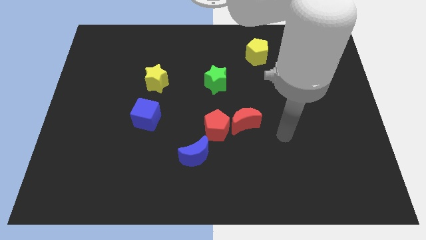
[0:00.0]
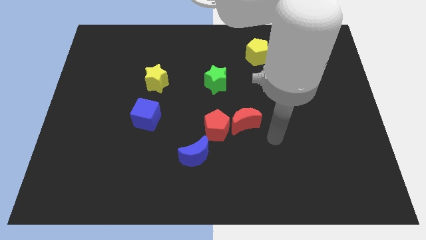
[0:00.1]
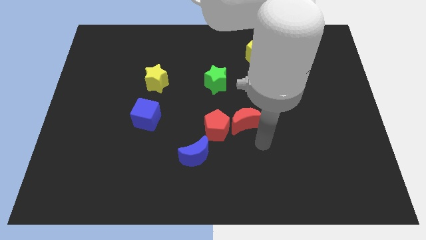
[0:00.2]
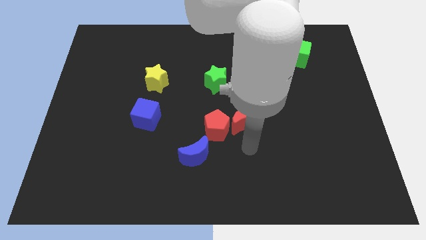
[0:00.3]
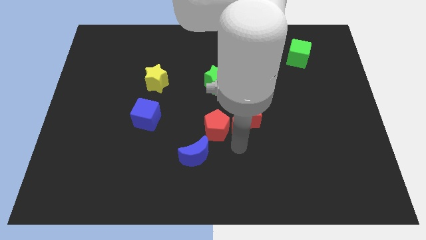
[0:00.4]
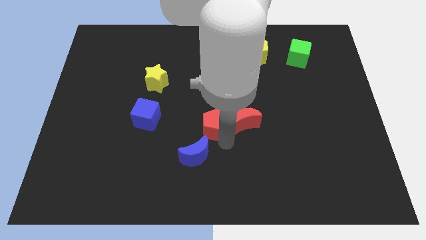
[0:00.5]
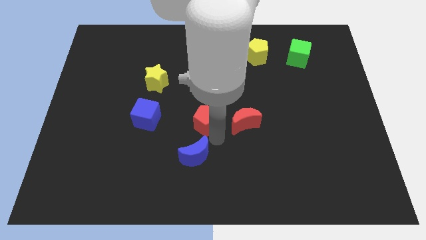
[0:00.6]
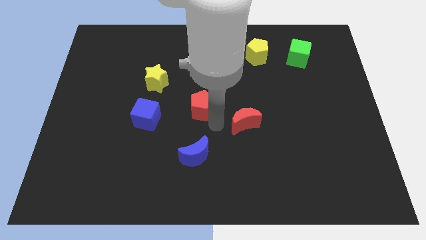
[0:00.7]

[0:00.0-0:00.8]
move the red moon away from the red pentagon

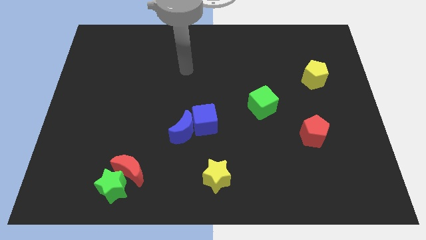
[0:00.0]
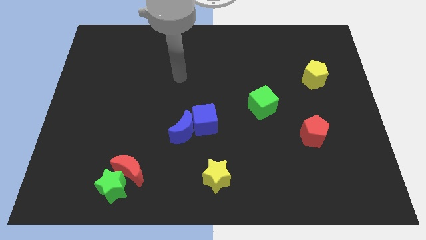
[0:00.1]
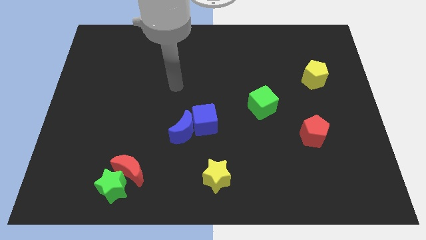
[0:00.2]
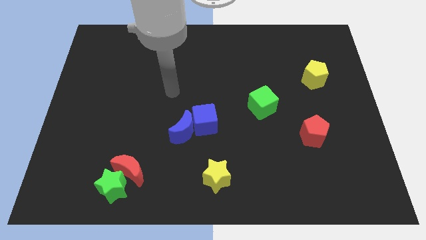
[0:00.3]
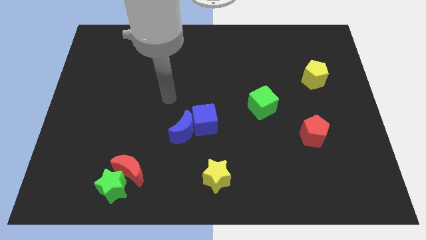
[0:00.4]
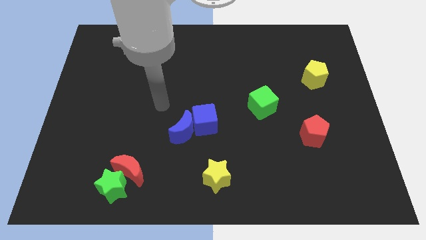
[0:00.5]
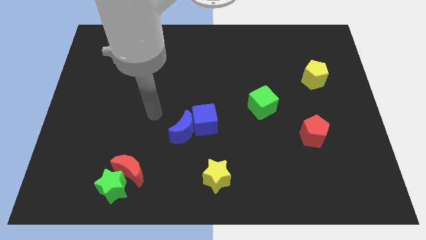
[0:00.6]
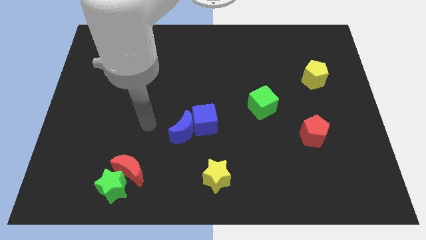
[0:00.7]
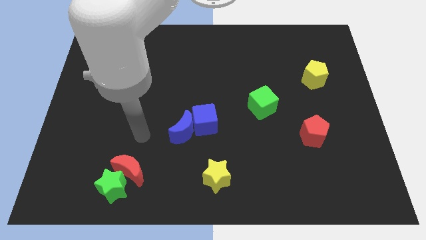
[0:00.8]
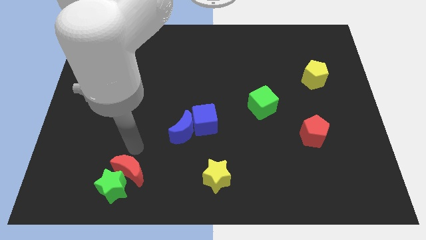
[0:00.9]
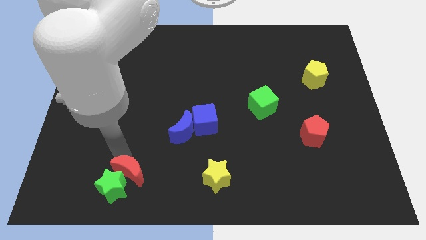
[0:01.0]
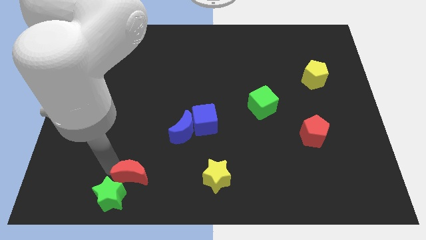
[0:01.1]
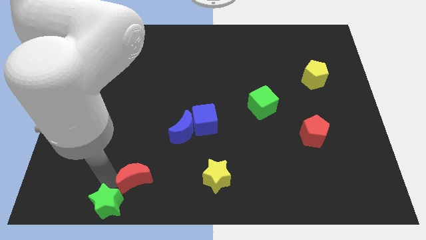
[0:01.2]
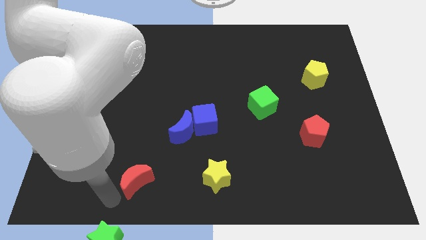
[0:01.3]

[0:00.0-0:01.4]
separate the red moon from the green star

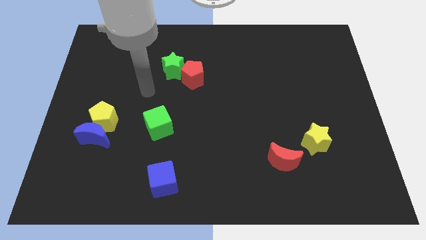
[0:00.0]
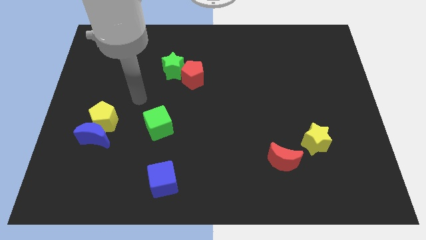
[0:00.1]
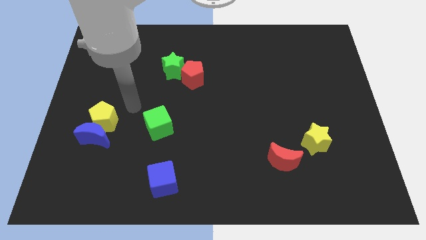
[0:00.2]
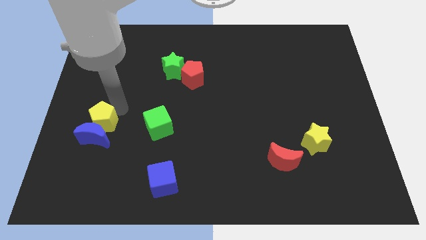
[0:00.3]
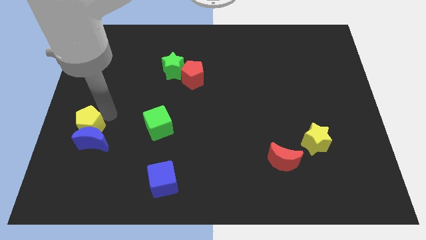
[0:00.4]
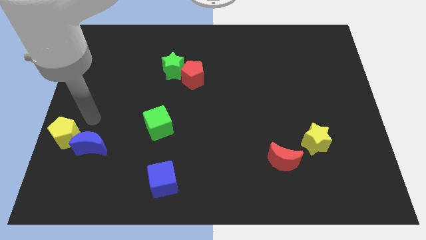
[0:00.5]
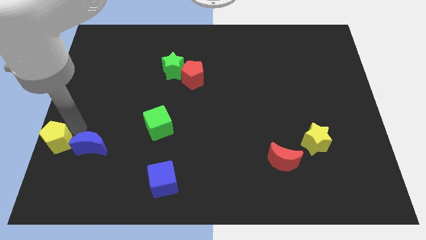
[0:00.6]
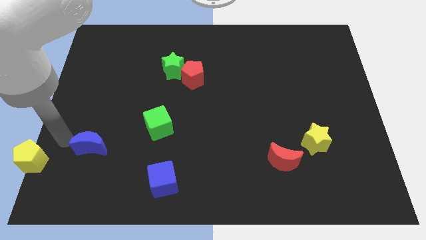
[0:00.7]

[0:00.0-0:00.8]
separate the blue moon from the yellow pentagon

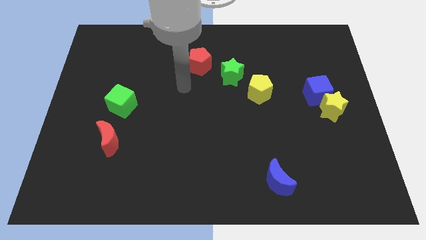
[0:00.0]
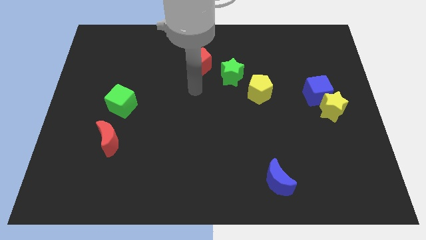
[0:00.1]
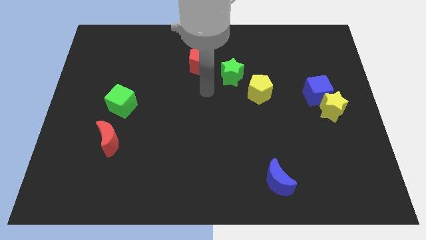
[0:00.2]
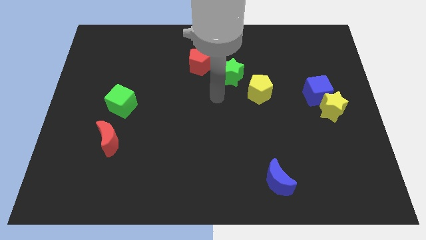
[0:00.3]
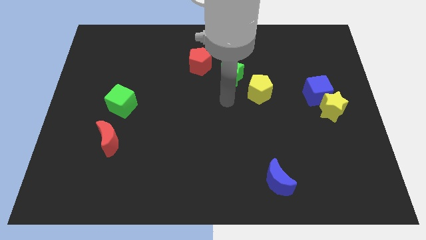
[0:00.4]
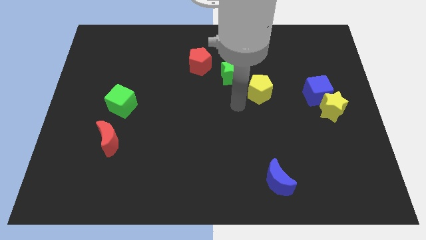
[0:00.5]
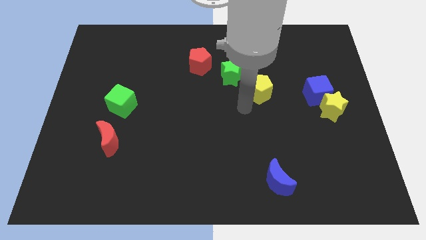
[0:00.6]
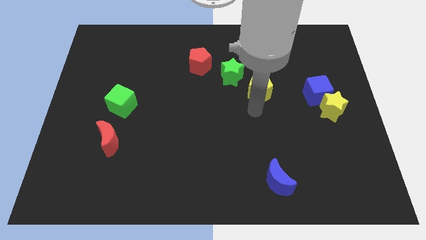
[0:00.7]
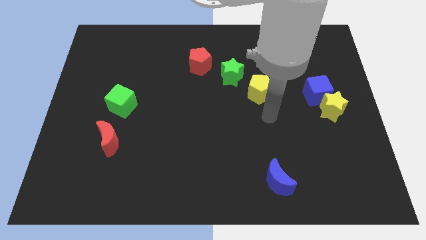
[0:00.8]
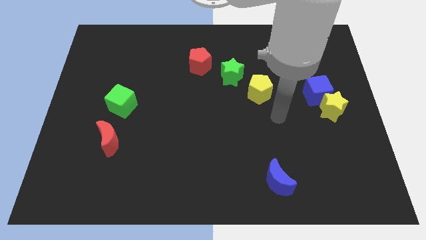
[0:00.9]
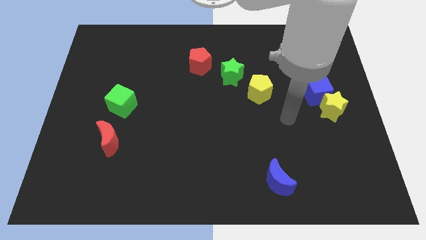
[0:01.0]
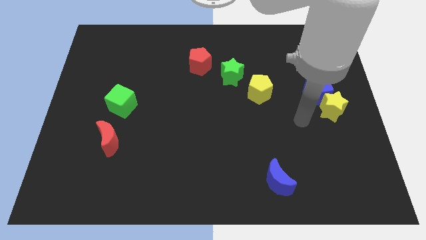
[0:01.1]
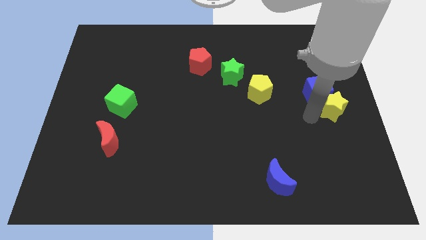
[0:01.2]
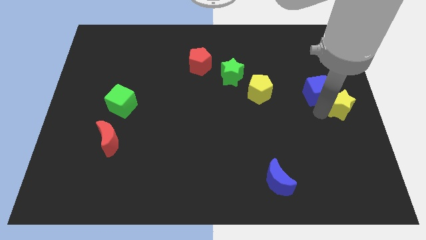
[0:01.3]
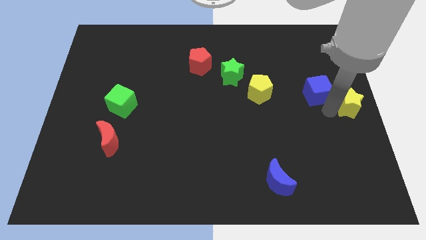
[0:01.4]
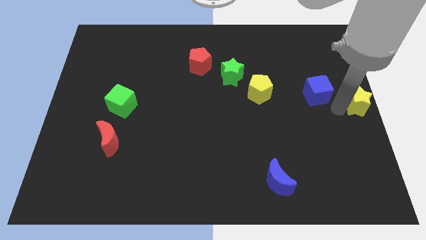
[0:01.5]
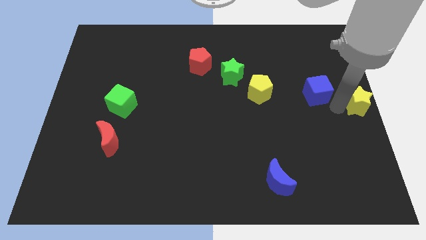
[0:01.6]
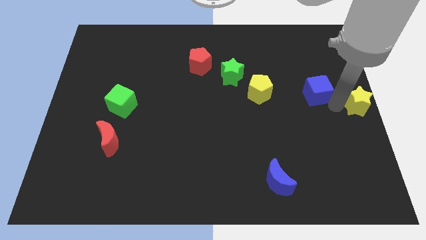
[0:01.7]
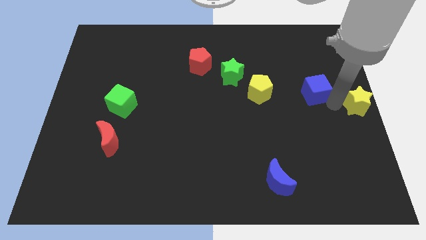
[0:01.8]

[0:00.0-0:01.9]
move the blue cube away from the yellow star

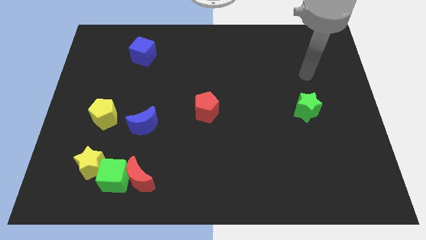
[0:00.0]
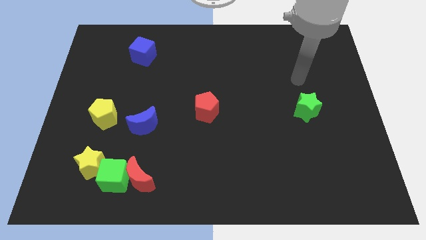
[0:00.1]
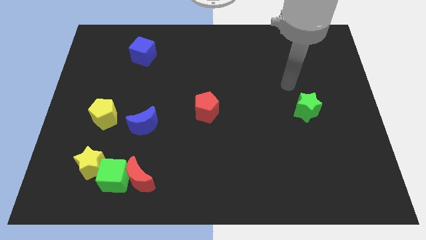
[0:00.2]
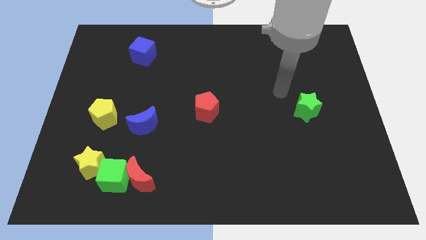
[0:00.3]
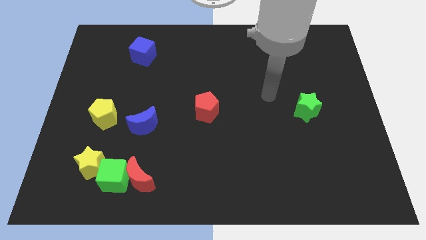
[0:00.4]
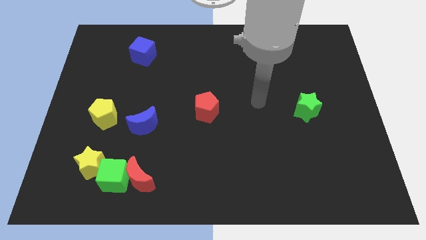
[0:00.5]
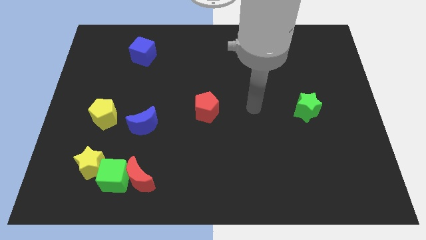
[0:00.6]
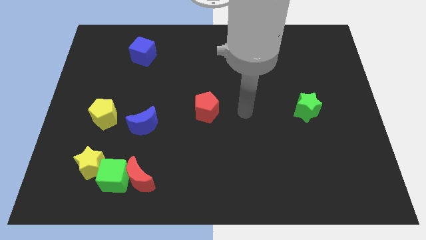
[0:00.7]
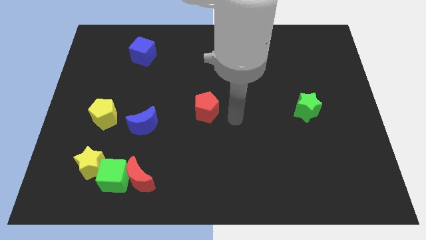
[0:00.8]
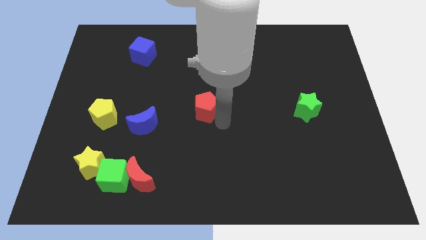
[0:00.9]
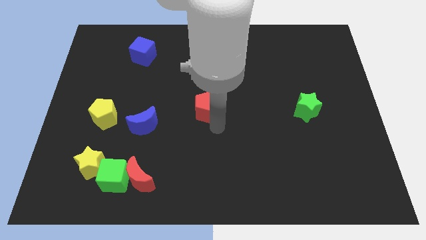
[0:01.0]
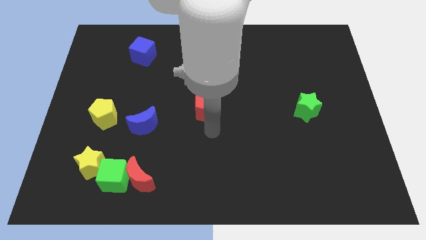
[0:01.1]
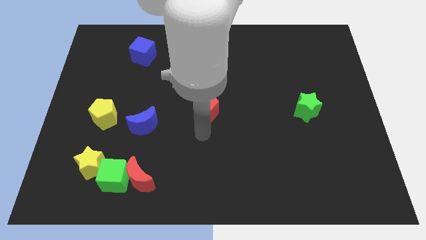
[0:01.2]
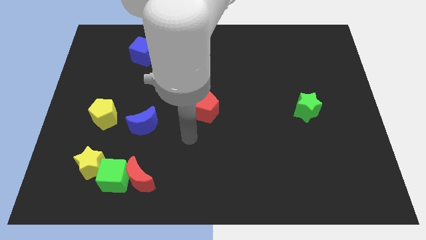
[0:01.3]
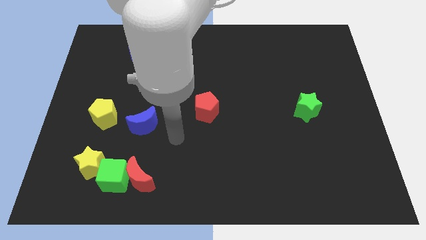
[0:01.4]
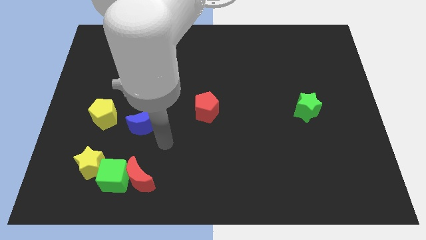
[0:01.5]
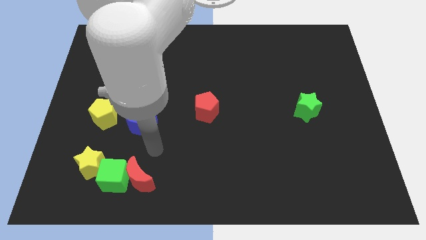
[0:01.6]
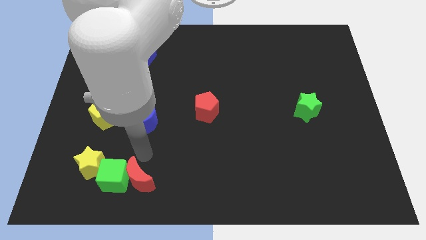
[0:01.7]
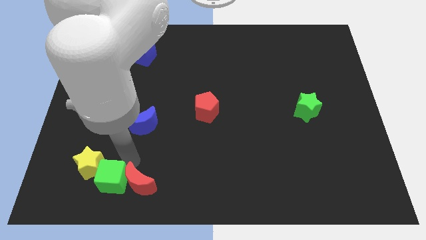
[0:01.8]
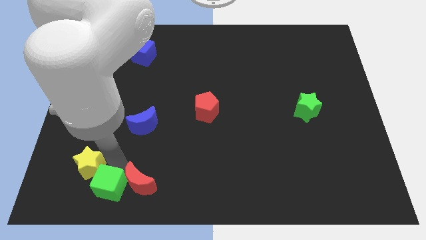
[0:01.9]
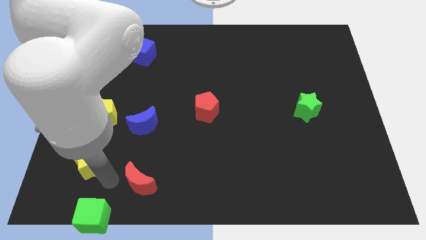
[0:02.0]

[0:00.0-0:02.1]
pull the red moon apart from the green cube

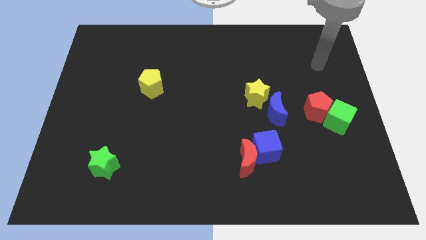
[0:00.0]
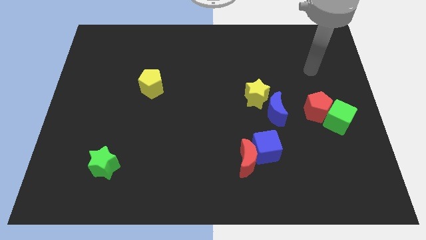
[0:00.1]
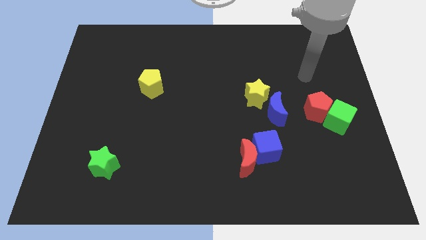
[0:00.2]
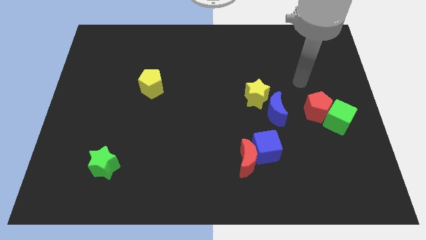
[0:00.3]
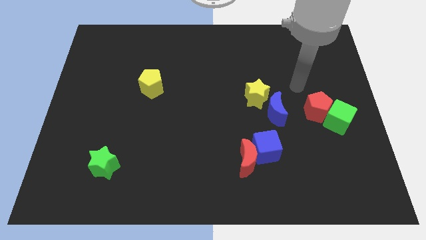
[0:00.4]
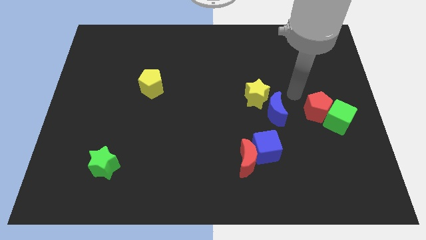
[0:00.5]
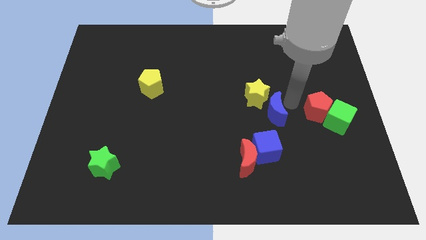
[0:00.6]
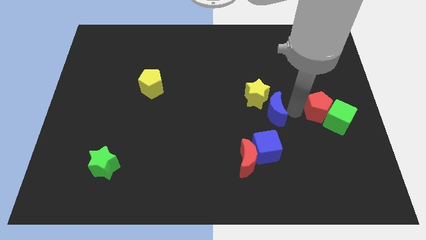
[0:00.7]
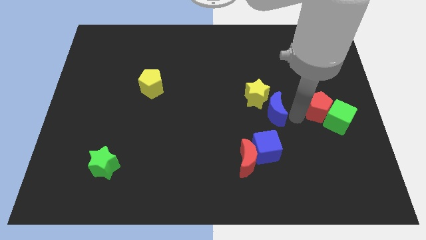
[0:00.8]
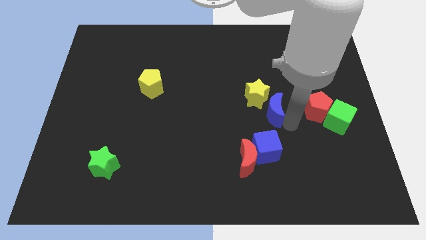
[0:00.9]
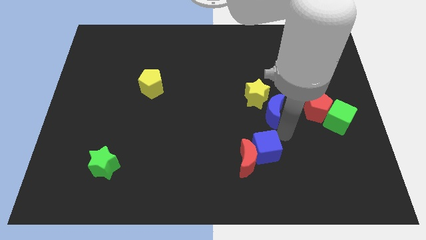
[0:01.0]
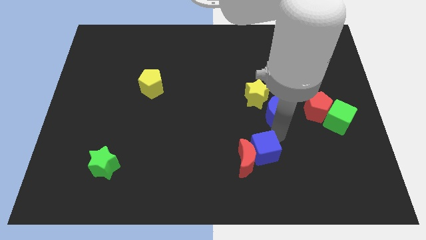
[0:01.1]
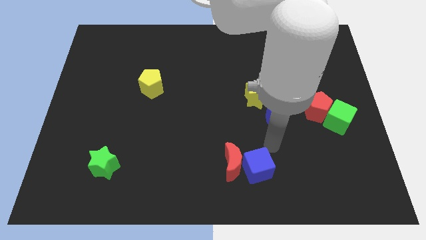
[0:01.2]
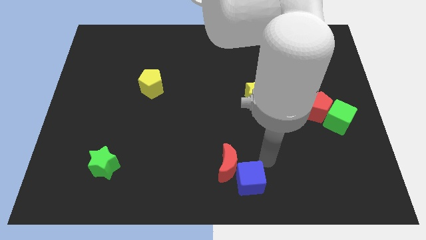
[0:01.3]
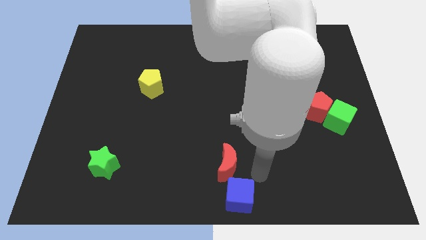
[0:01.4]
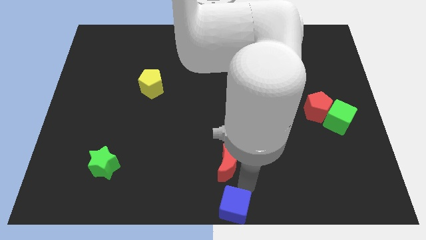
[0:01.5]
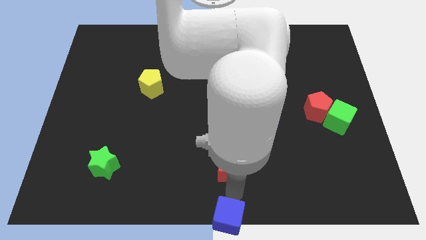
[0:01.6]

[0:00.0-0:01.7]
move the red moon away from the blue cube

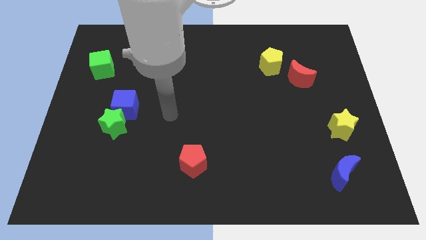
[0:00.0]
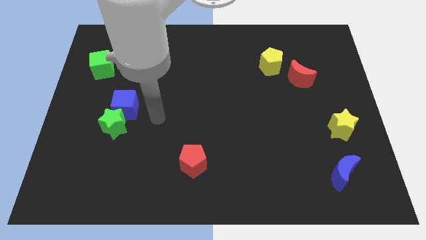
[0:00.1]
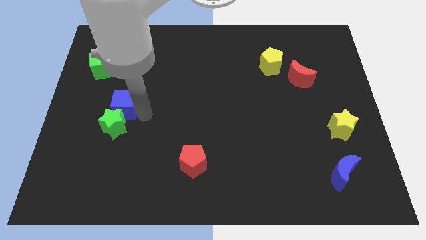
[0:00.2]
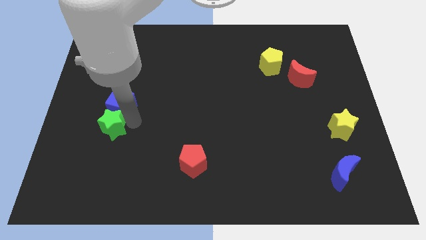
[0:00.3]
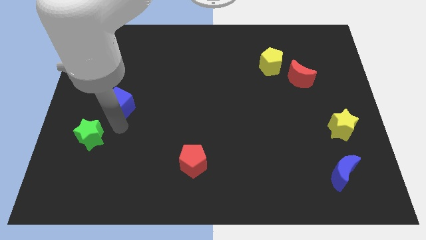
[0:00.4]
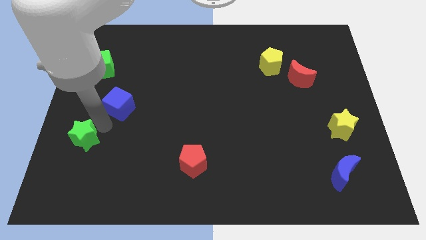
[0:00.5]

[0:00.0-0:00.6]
separate the blue cube from the green star
